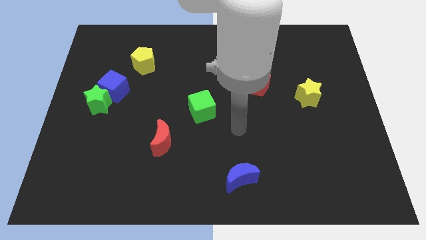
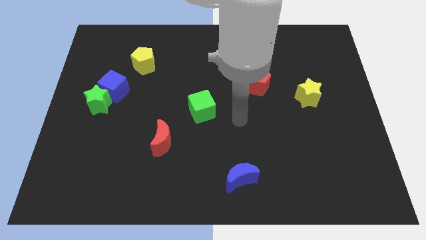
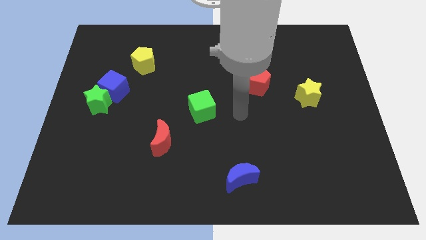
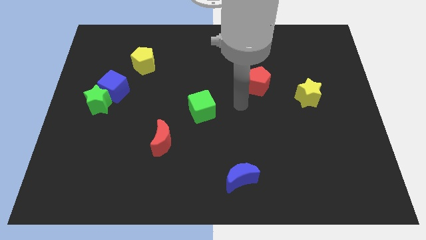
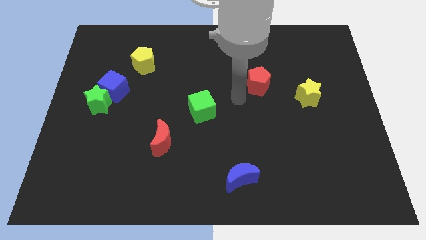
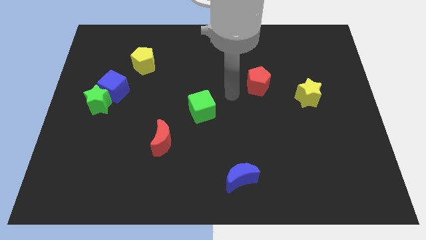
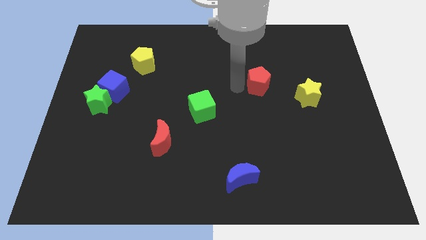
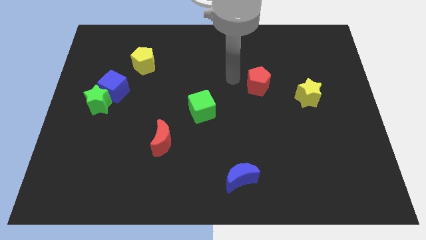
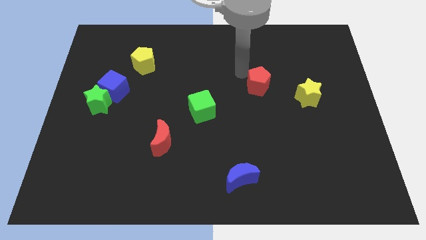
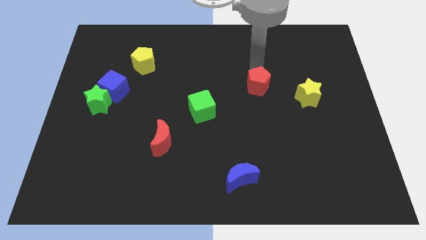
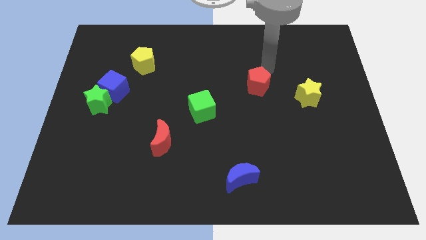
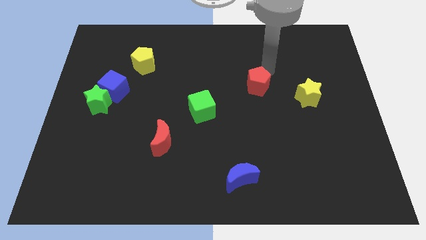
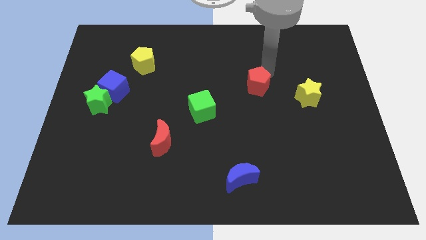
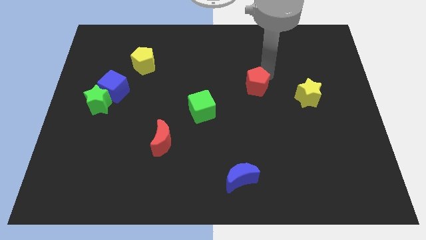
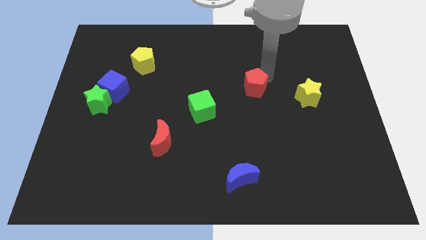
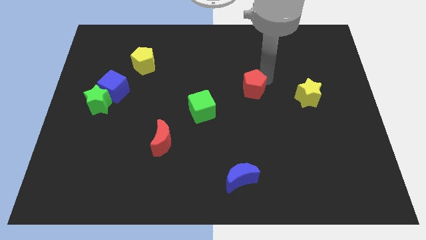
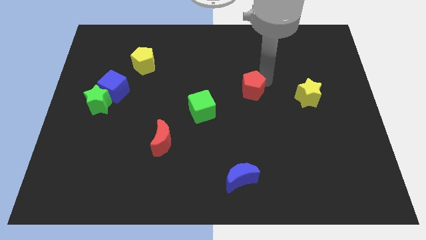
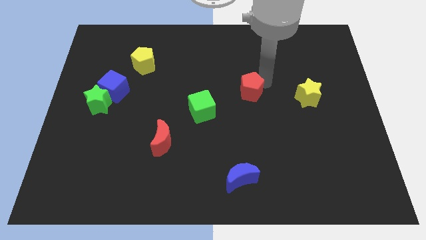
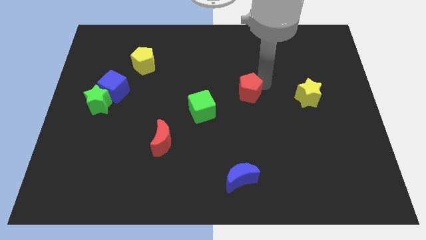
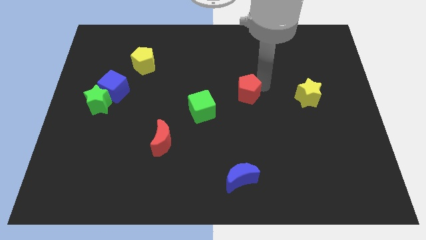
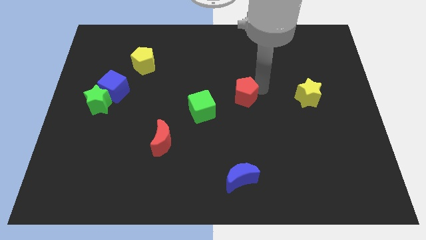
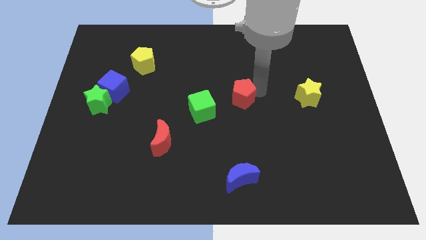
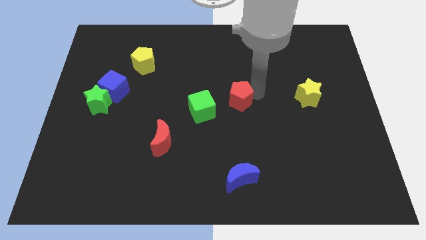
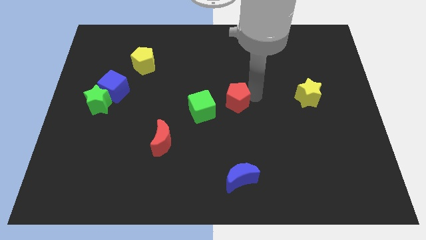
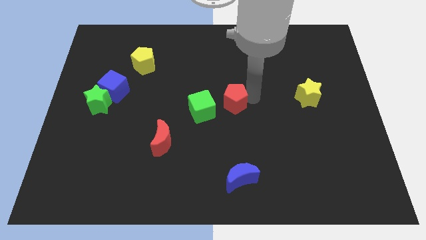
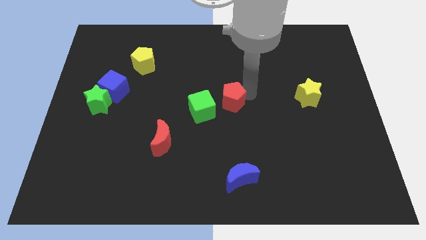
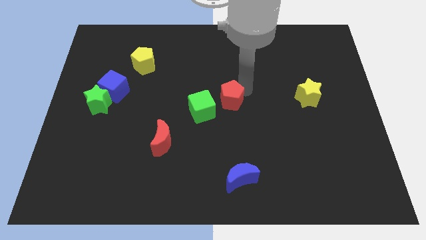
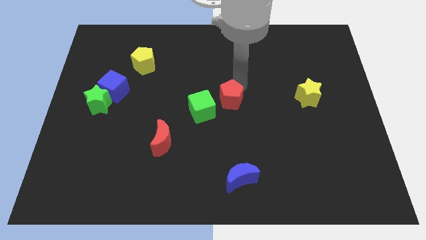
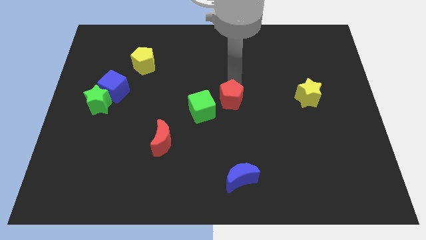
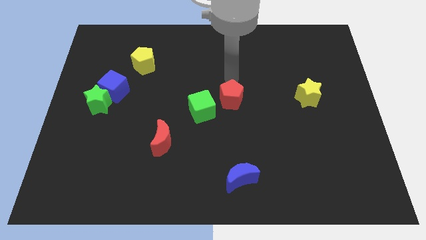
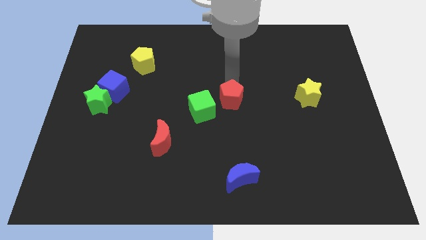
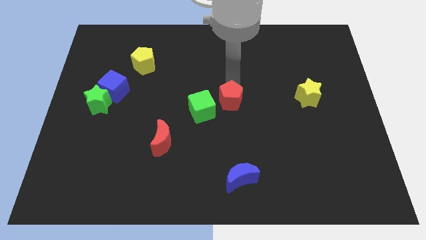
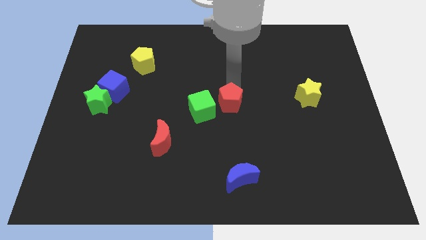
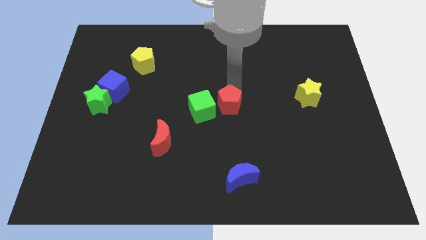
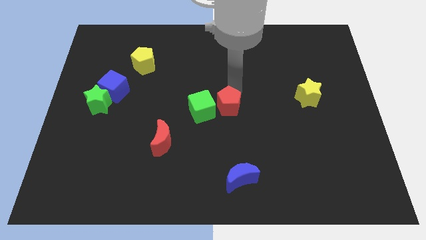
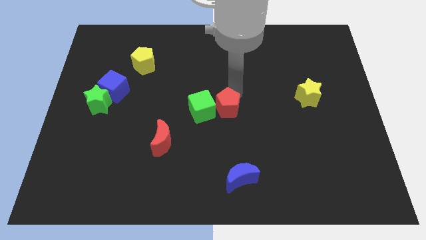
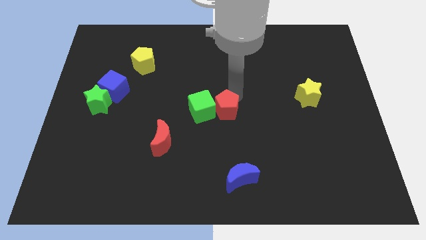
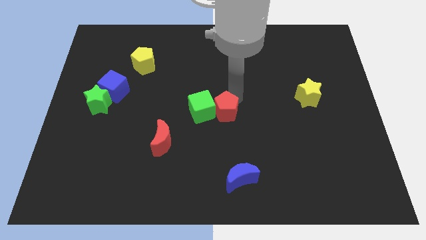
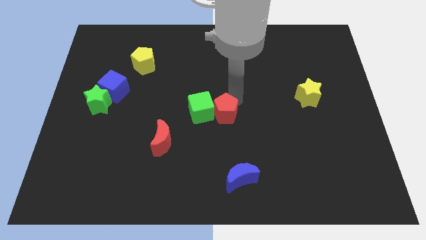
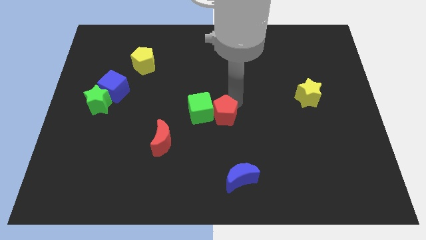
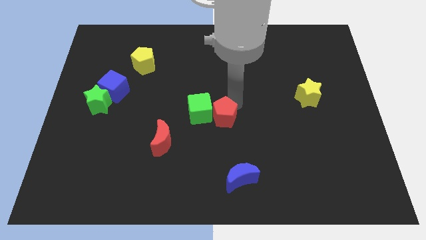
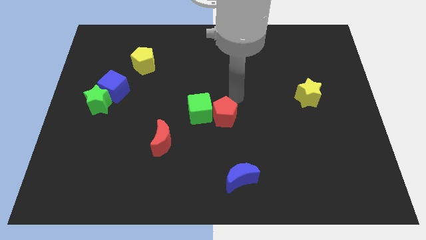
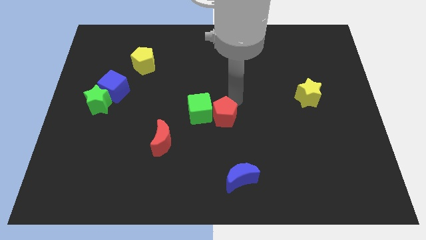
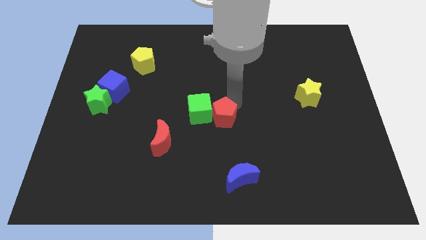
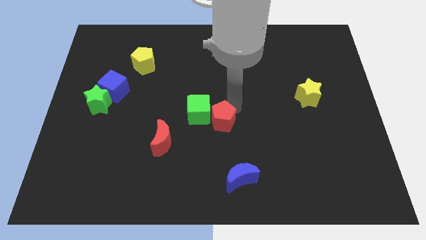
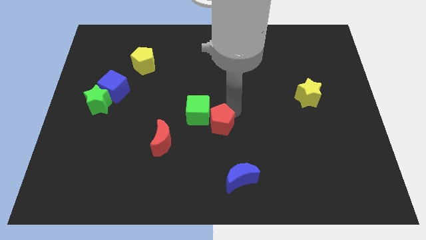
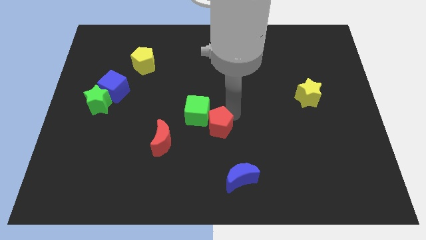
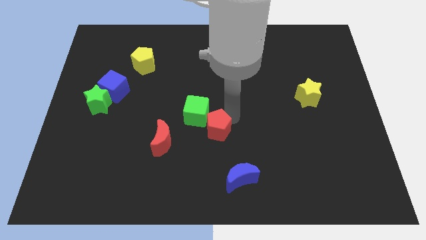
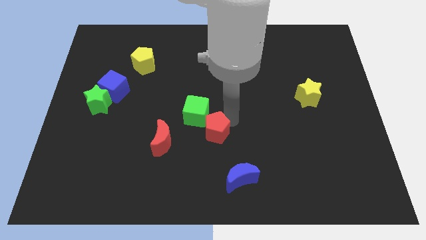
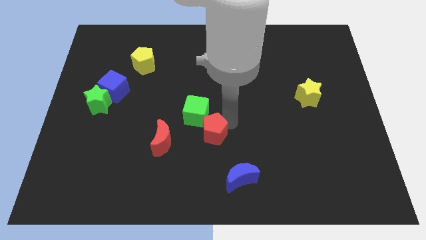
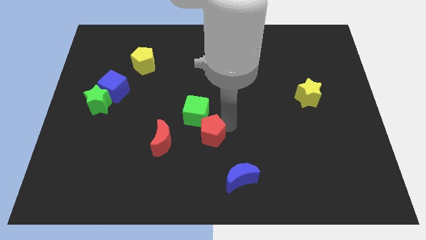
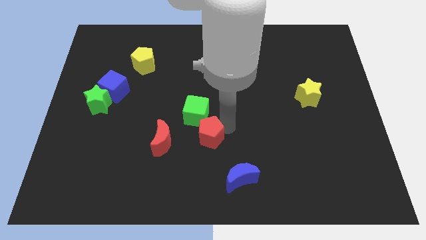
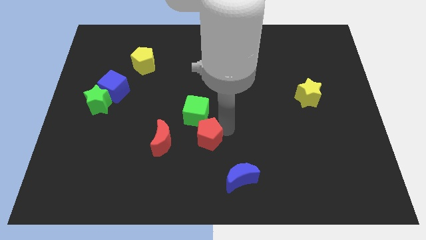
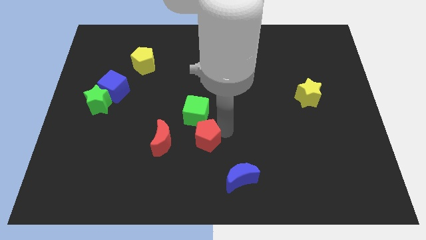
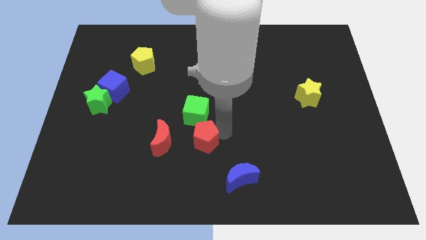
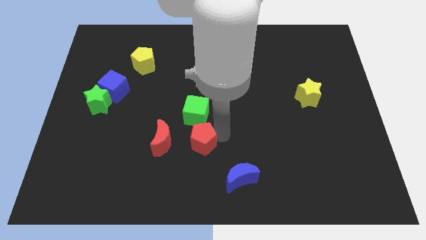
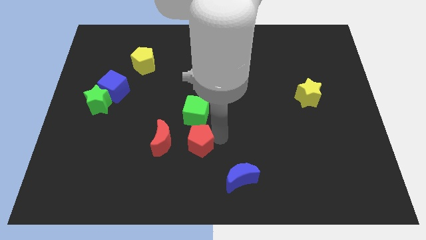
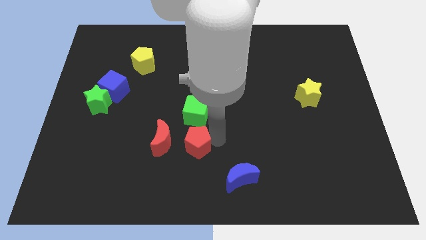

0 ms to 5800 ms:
push the red pentagon to the bottom right of the red moon

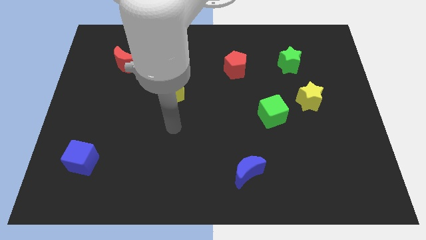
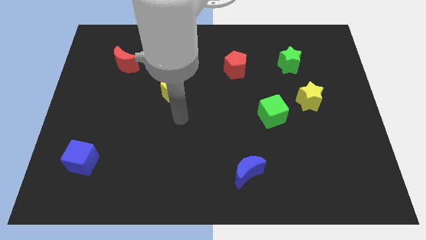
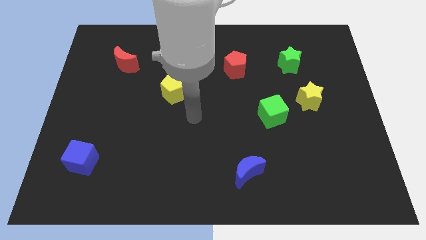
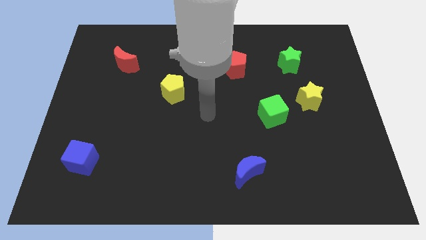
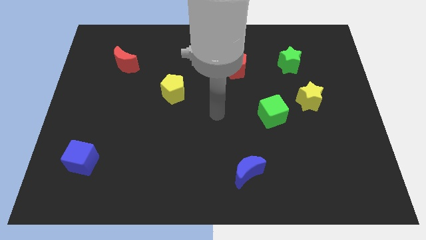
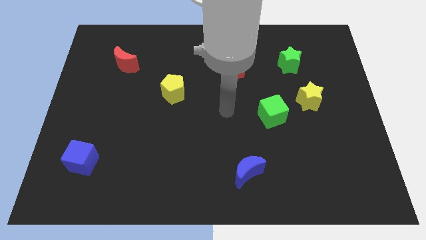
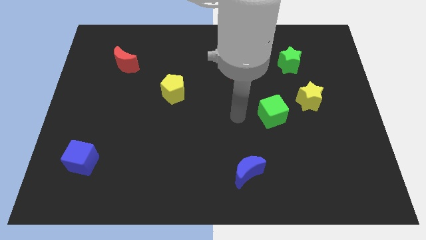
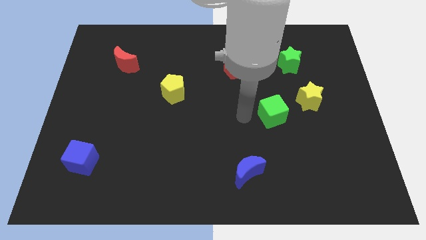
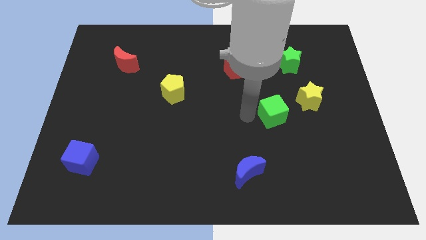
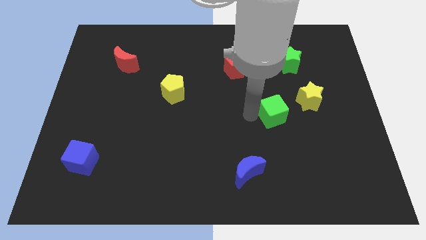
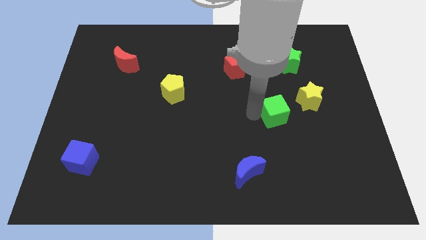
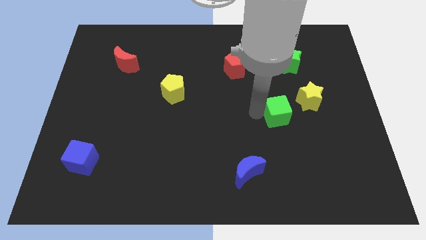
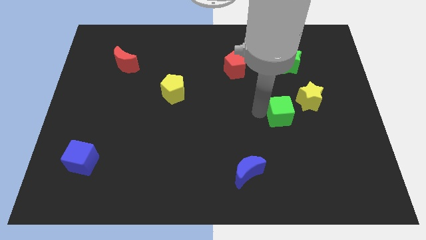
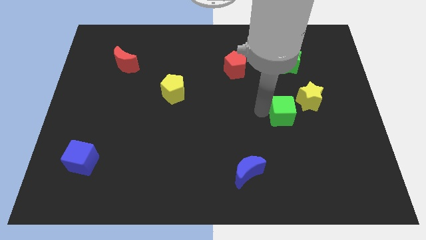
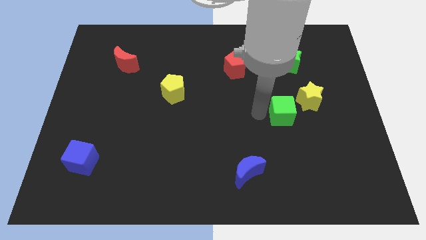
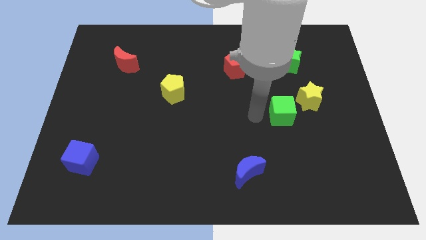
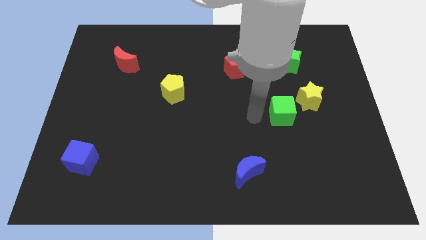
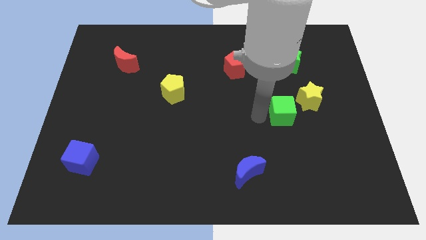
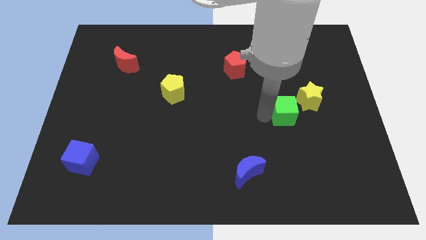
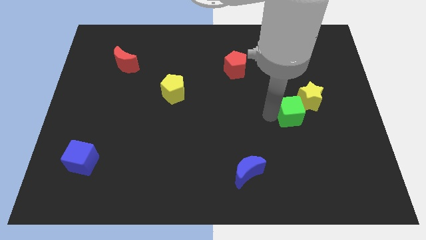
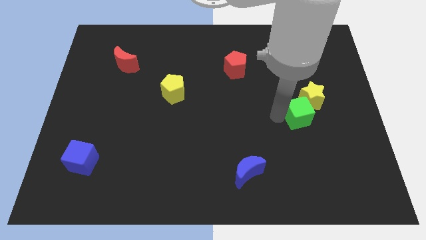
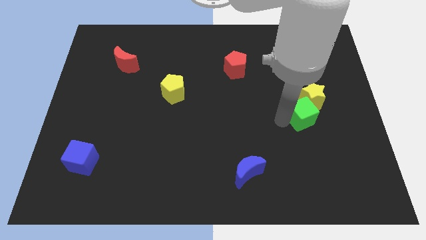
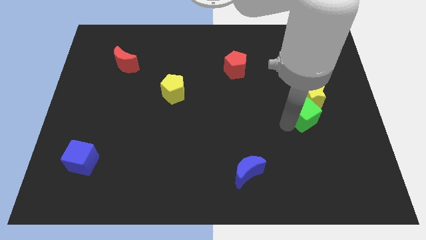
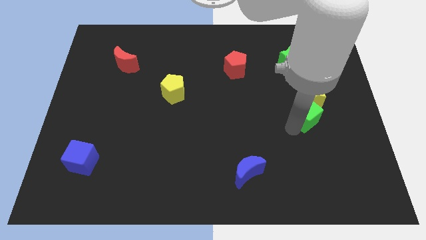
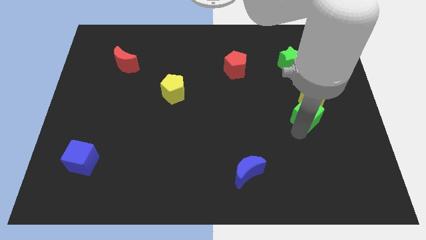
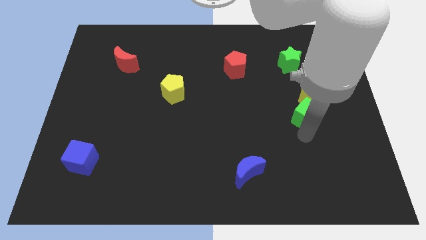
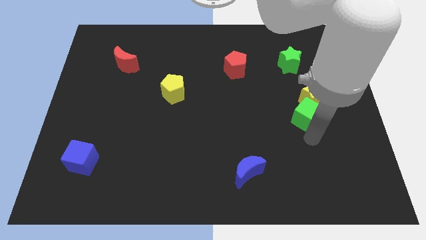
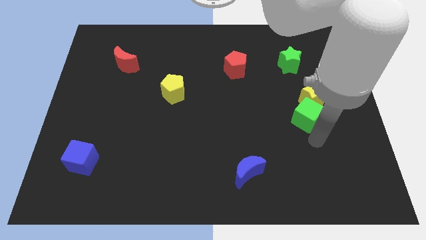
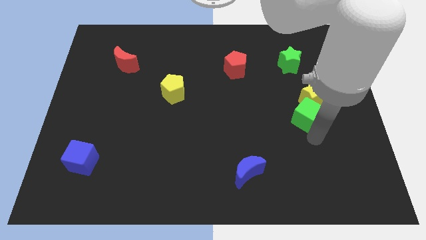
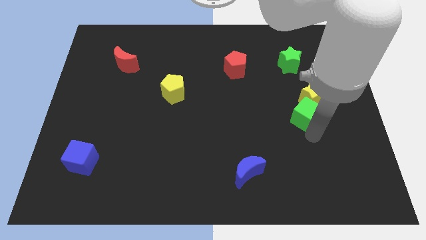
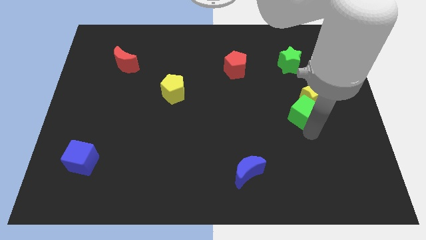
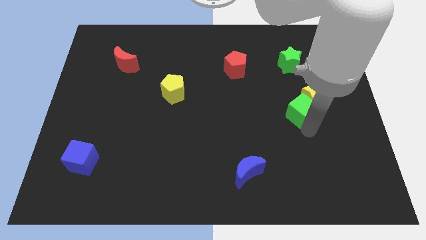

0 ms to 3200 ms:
push the green cube to the bottom side of the green star
